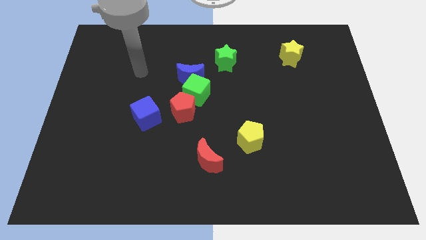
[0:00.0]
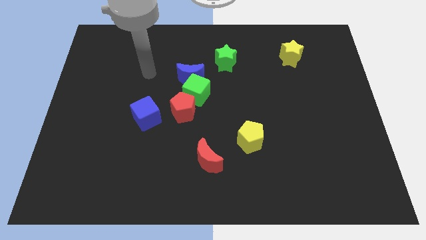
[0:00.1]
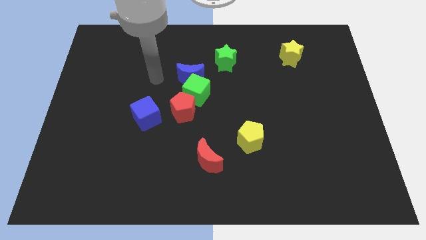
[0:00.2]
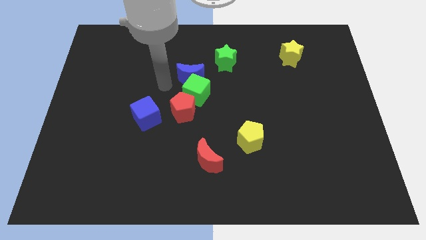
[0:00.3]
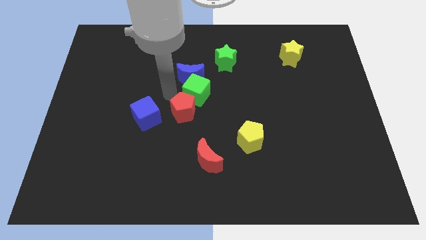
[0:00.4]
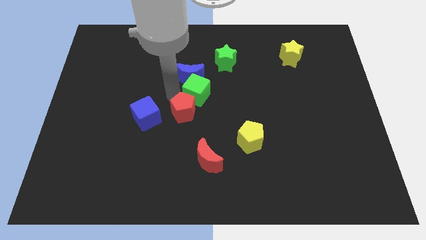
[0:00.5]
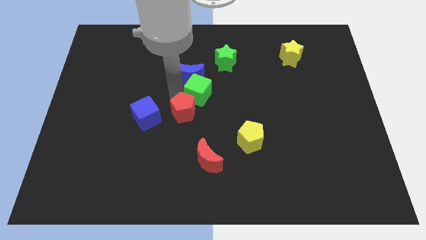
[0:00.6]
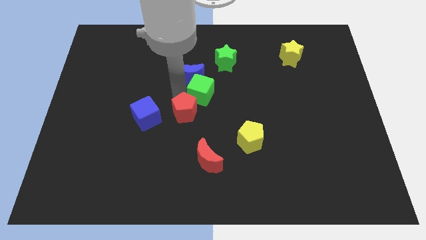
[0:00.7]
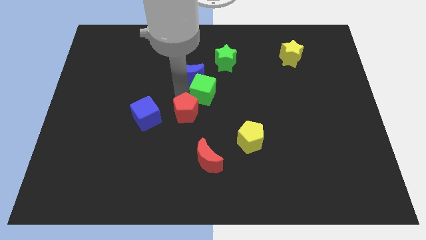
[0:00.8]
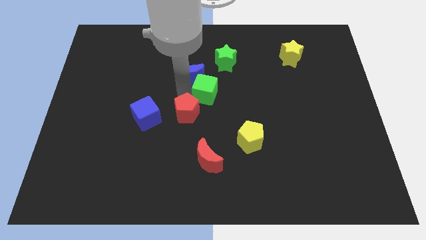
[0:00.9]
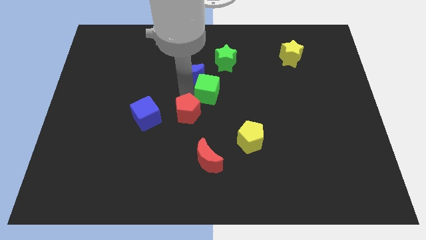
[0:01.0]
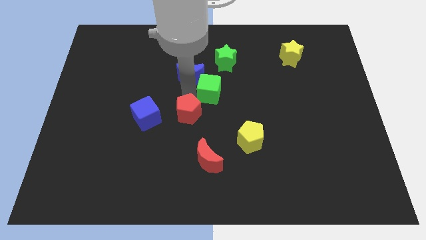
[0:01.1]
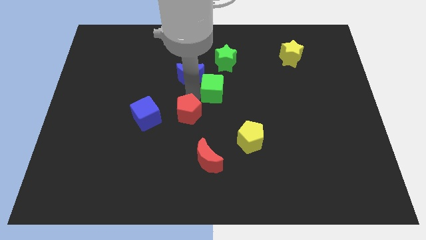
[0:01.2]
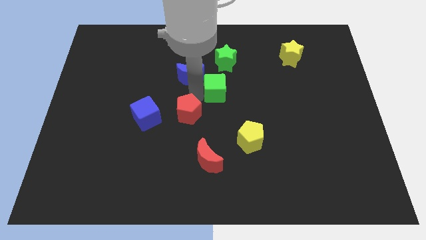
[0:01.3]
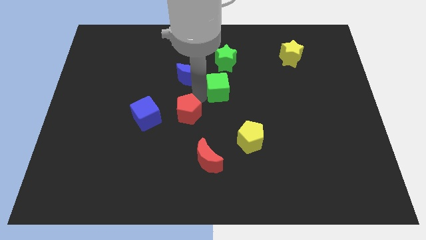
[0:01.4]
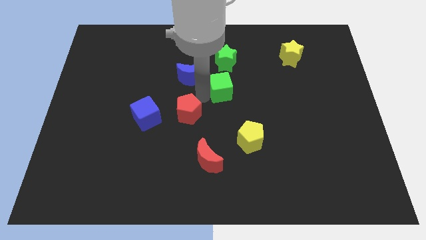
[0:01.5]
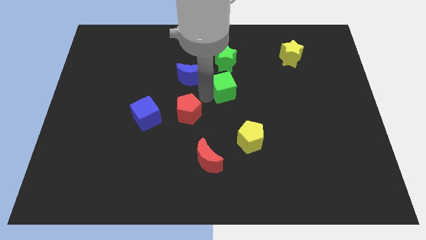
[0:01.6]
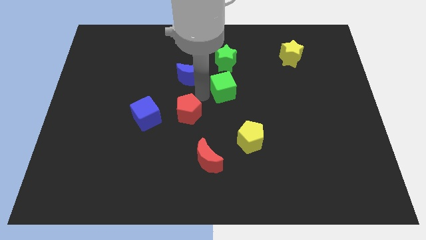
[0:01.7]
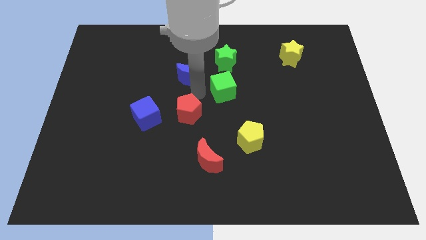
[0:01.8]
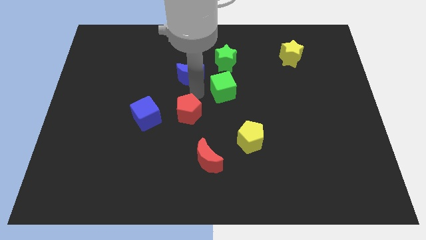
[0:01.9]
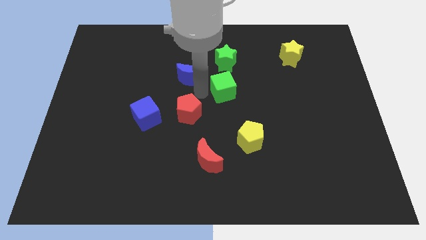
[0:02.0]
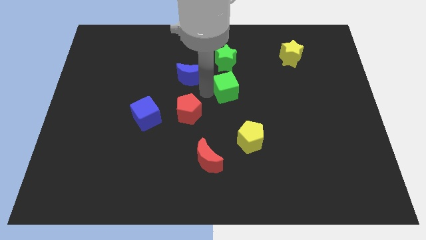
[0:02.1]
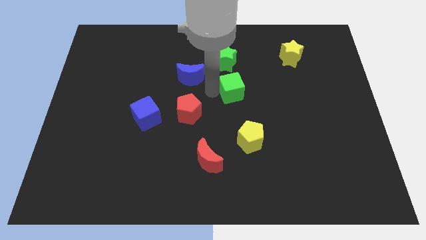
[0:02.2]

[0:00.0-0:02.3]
separate the green cube from the blue moon and red pentagon

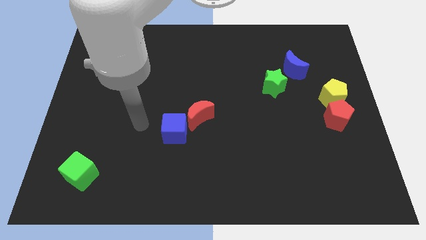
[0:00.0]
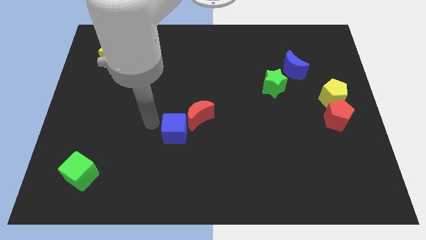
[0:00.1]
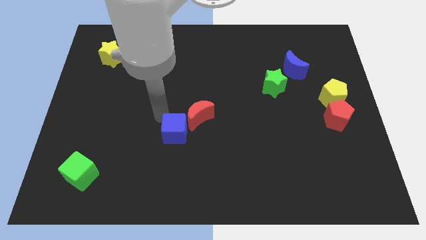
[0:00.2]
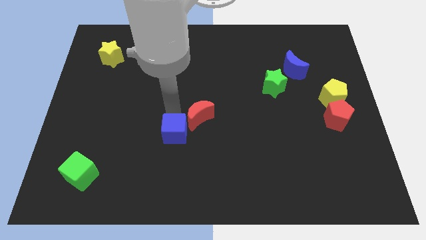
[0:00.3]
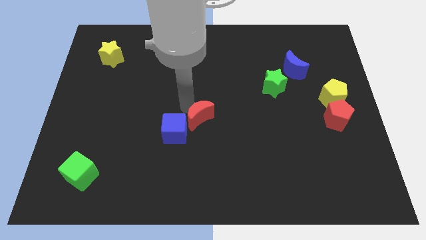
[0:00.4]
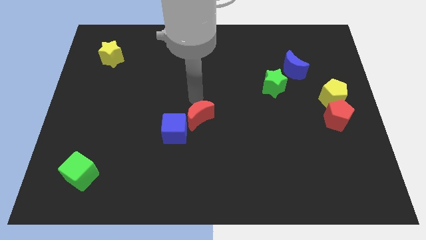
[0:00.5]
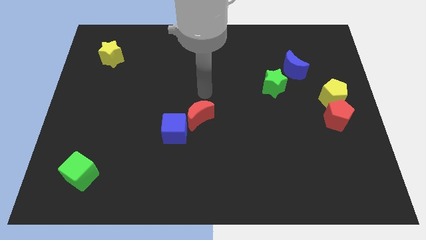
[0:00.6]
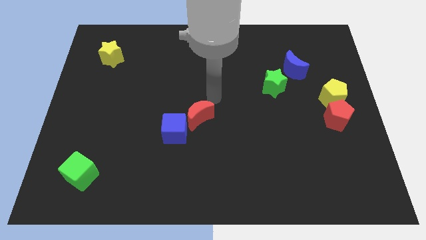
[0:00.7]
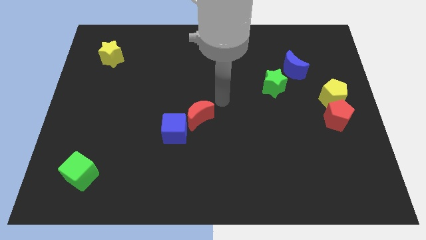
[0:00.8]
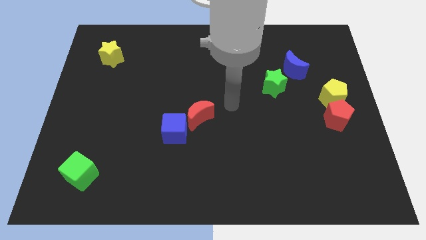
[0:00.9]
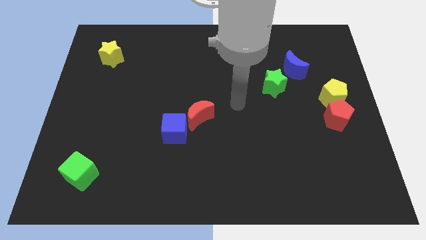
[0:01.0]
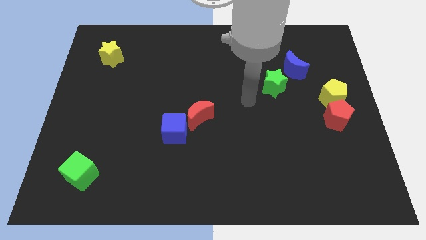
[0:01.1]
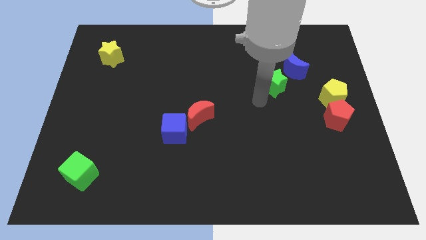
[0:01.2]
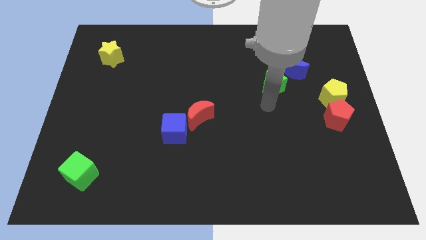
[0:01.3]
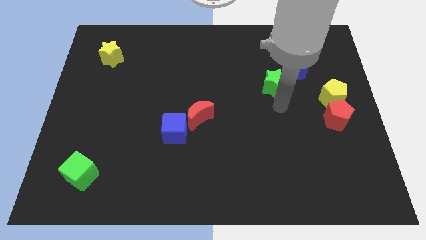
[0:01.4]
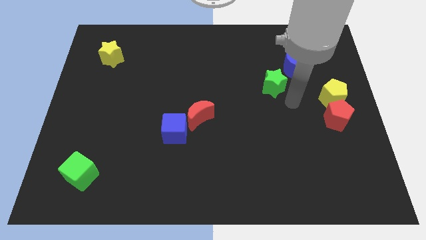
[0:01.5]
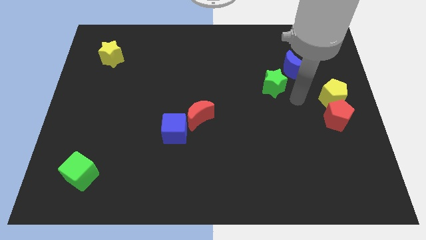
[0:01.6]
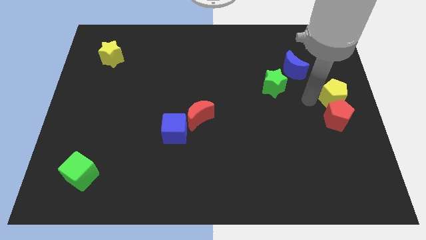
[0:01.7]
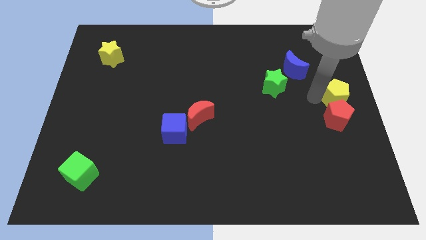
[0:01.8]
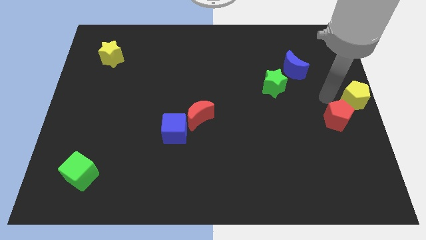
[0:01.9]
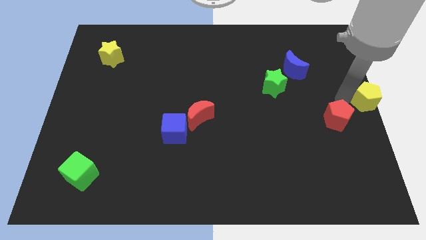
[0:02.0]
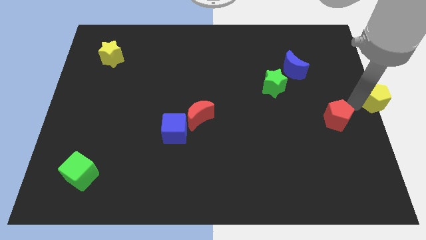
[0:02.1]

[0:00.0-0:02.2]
separate the red pentagon from the yellow pentagon

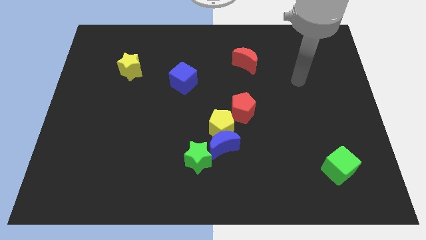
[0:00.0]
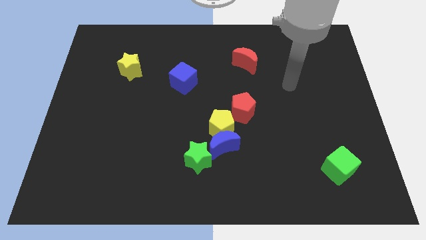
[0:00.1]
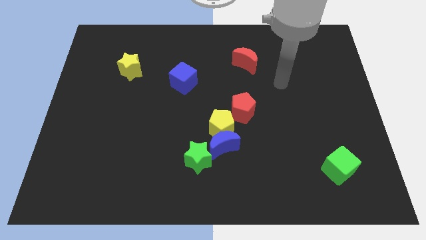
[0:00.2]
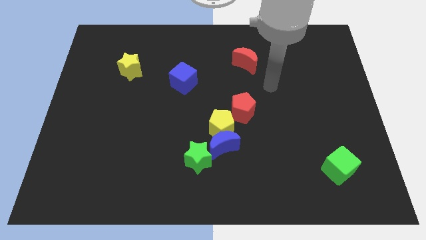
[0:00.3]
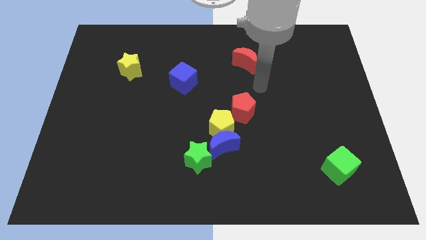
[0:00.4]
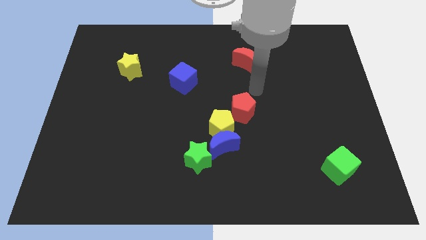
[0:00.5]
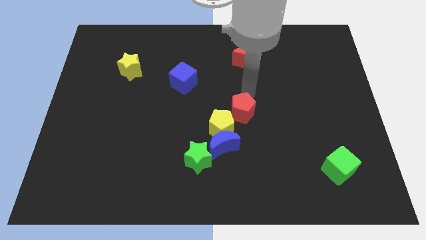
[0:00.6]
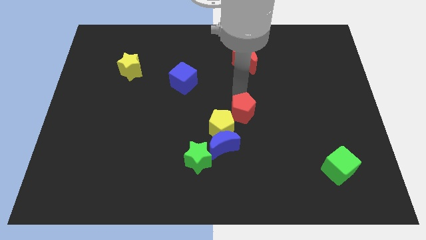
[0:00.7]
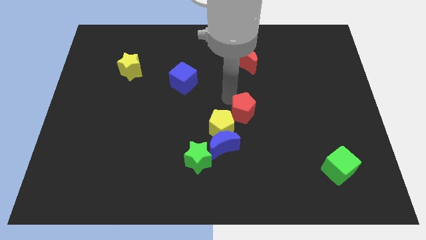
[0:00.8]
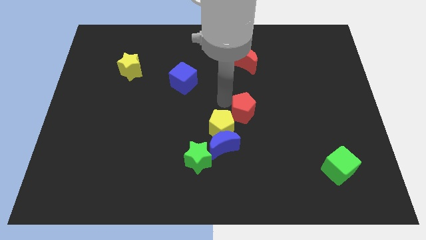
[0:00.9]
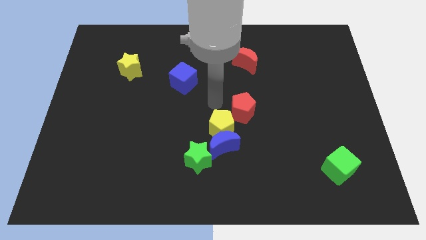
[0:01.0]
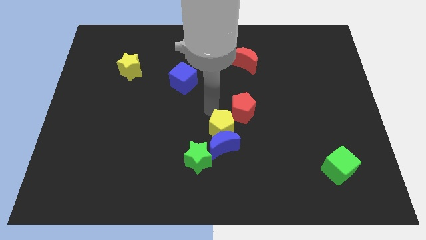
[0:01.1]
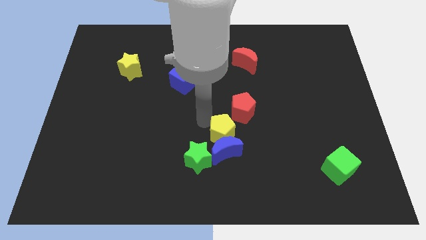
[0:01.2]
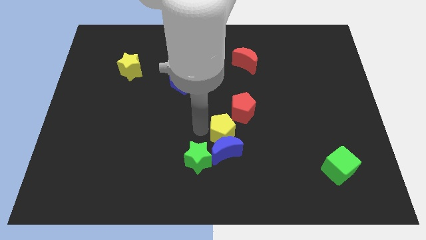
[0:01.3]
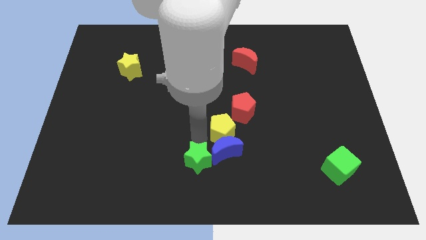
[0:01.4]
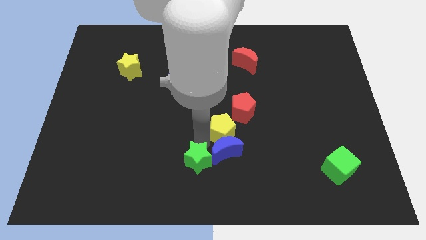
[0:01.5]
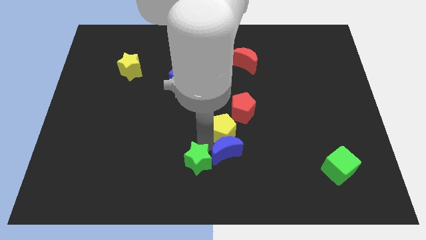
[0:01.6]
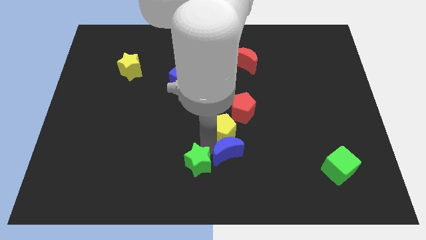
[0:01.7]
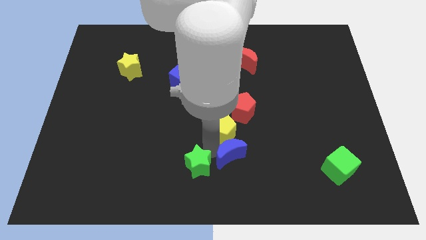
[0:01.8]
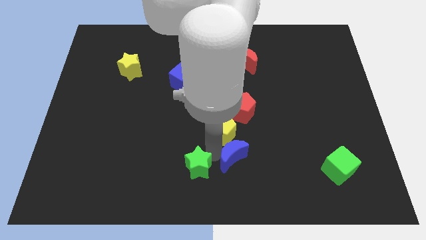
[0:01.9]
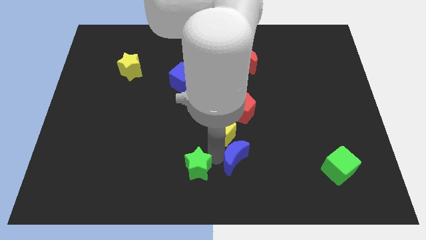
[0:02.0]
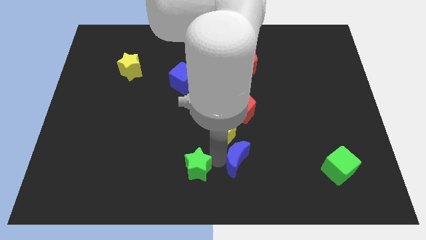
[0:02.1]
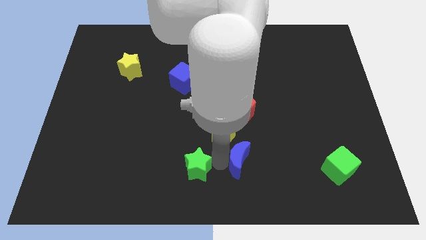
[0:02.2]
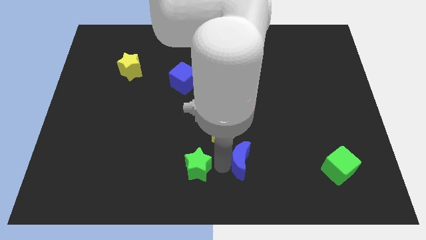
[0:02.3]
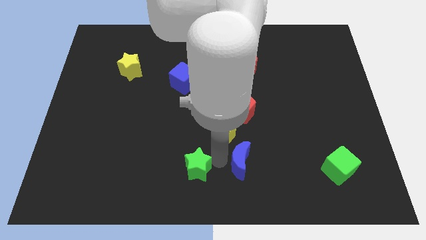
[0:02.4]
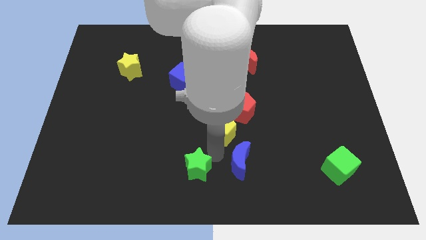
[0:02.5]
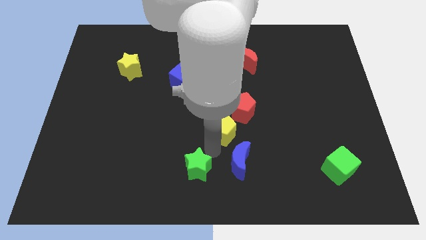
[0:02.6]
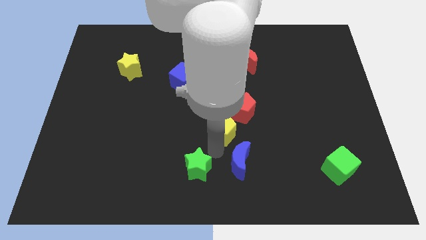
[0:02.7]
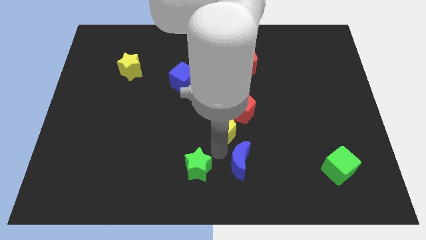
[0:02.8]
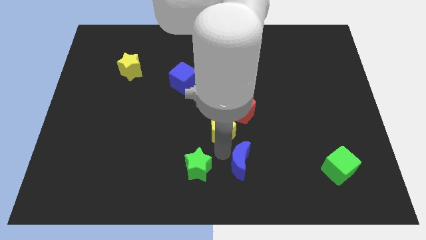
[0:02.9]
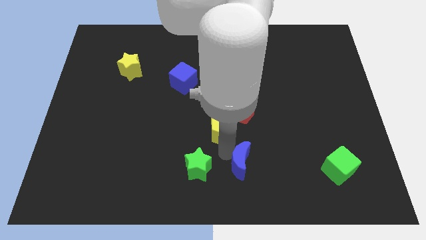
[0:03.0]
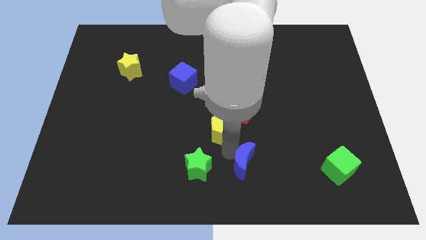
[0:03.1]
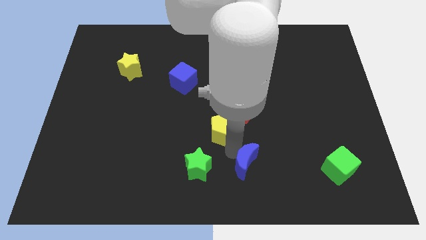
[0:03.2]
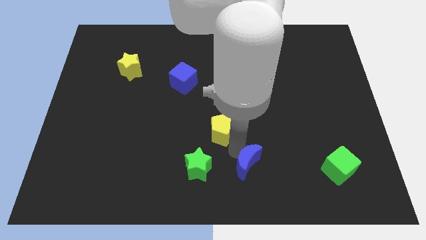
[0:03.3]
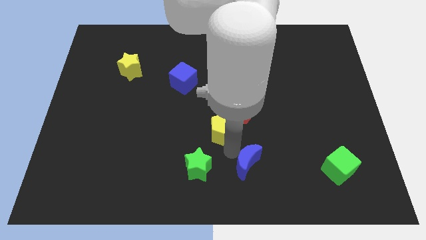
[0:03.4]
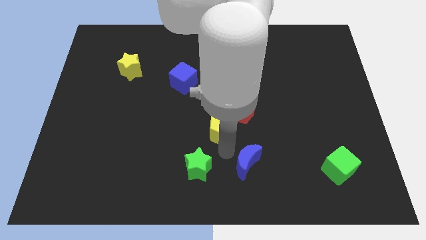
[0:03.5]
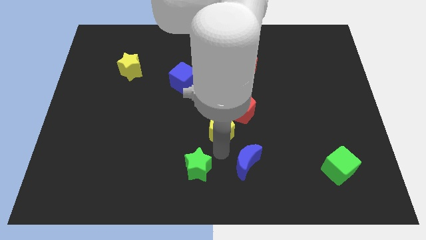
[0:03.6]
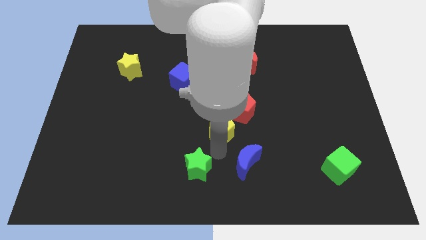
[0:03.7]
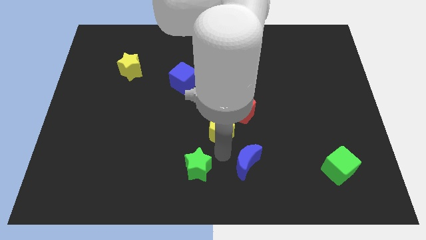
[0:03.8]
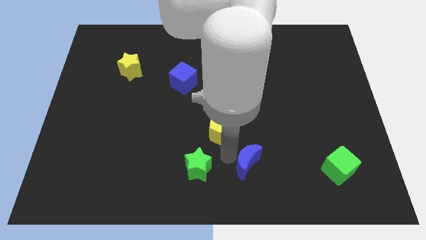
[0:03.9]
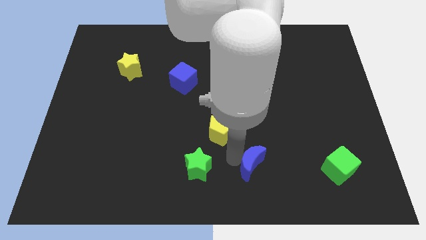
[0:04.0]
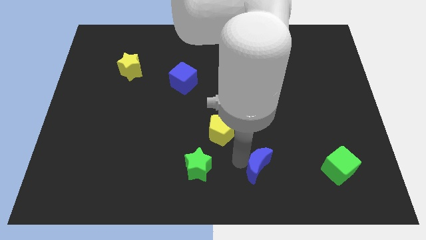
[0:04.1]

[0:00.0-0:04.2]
separate the blue moon from the yellow pentagon and green star

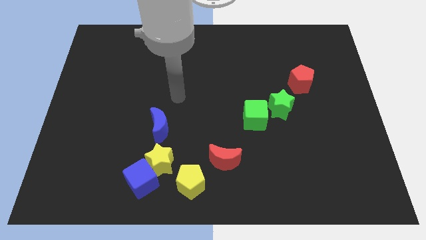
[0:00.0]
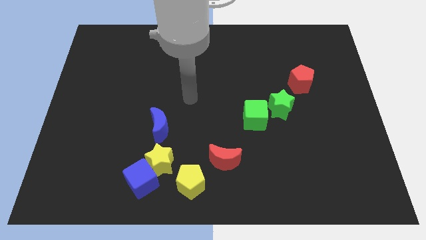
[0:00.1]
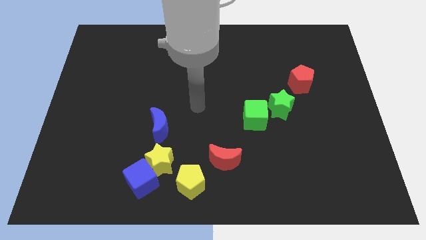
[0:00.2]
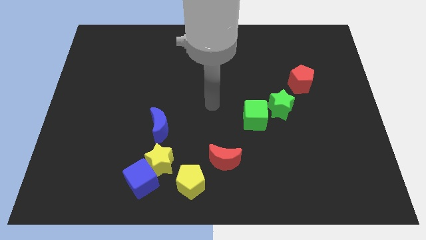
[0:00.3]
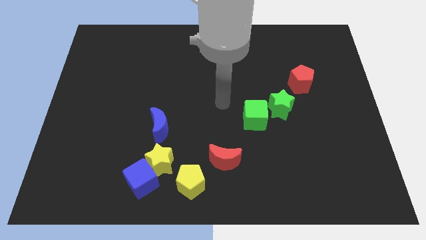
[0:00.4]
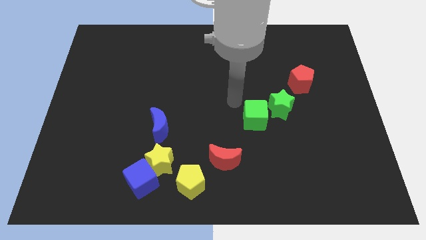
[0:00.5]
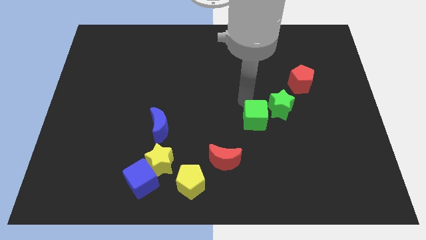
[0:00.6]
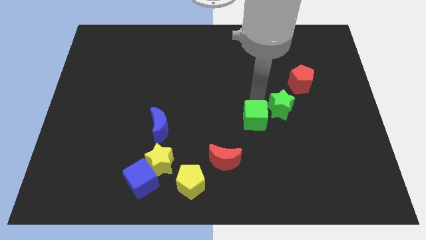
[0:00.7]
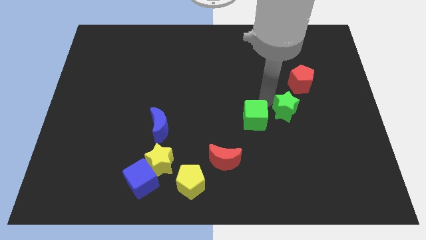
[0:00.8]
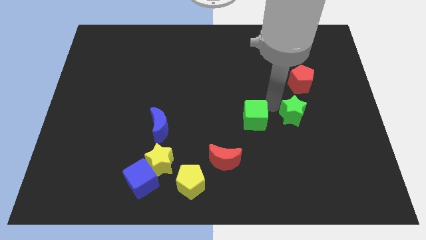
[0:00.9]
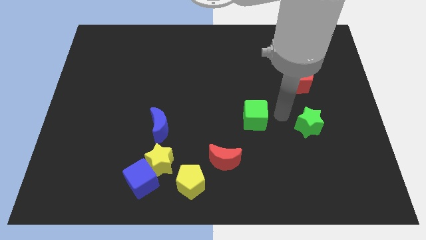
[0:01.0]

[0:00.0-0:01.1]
pull the green cube apart from the green star
